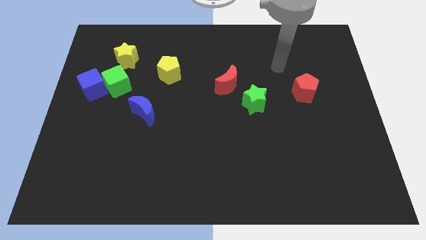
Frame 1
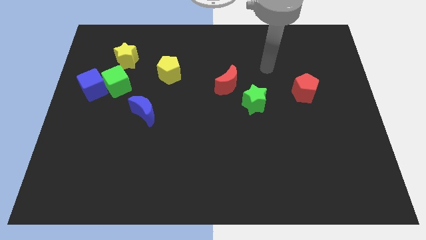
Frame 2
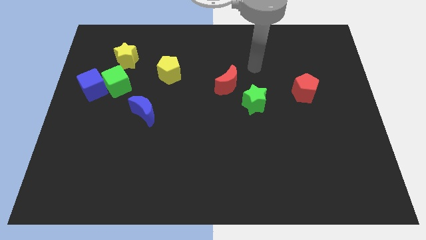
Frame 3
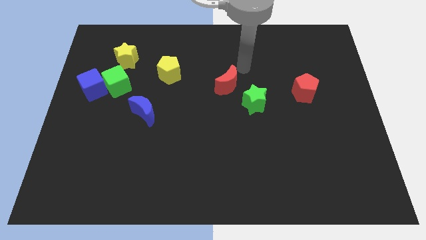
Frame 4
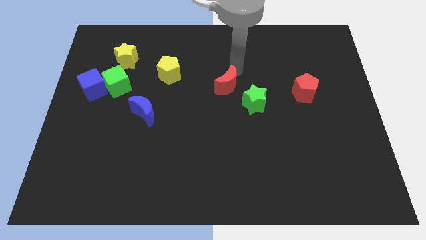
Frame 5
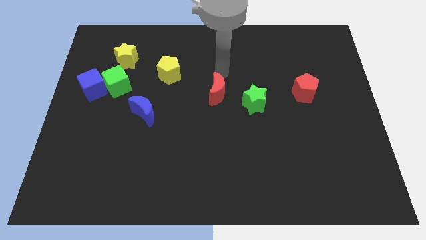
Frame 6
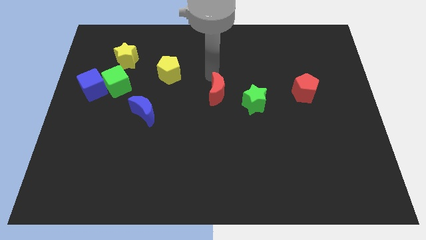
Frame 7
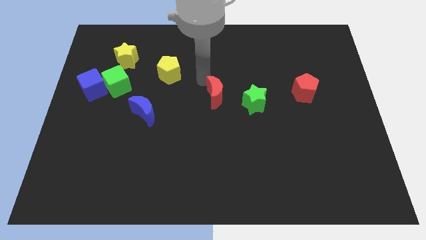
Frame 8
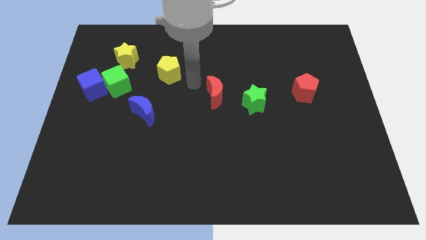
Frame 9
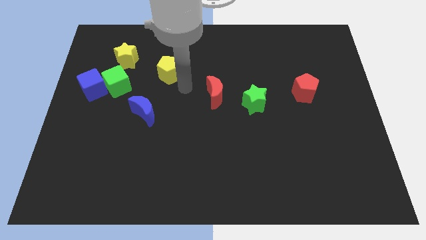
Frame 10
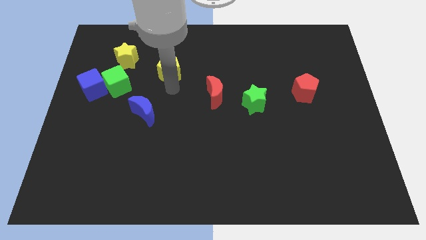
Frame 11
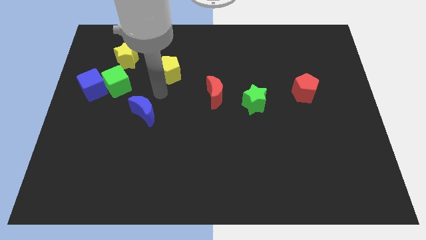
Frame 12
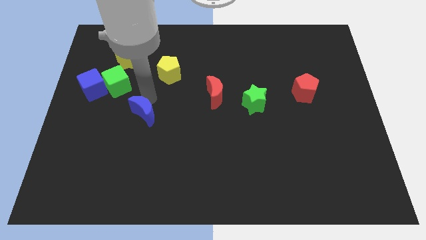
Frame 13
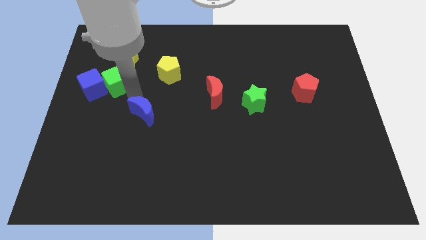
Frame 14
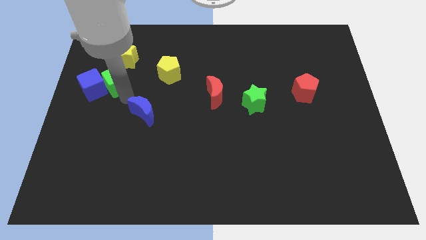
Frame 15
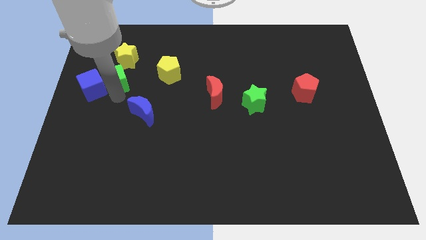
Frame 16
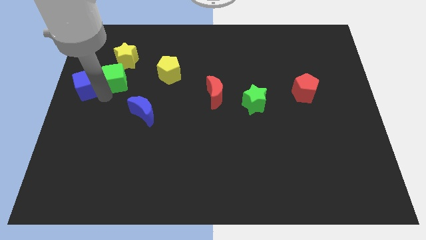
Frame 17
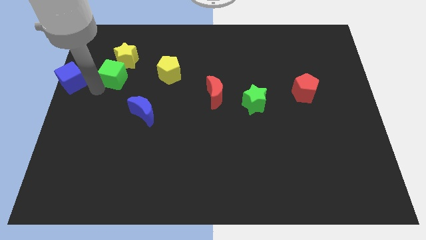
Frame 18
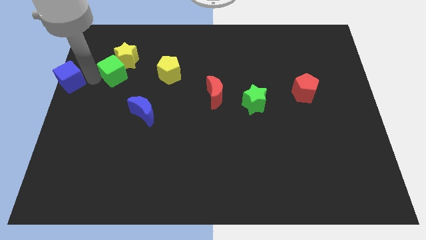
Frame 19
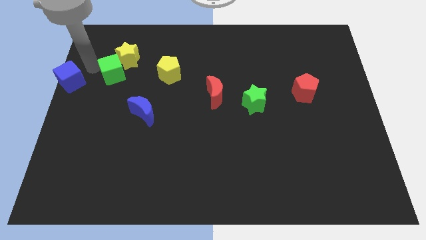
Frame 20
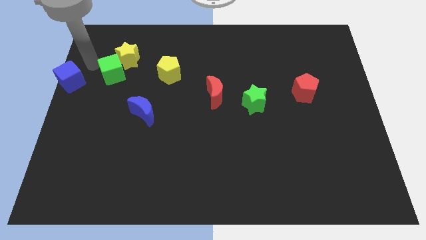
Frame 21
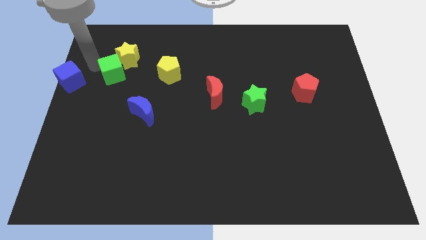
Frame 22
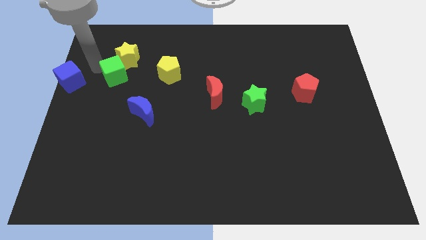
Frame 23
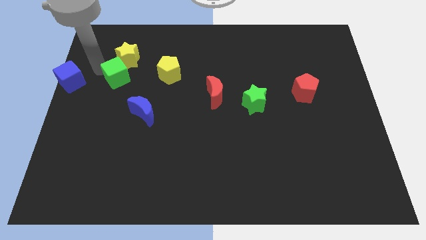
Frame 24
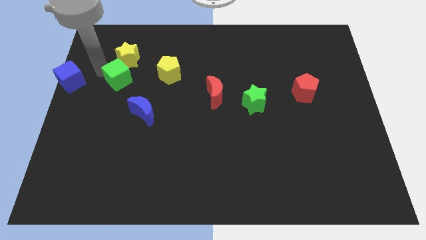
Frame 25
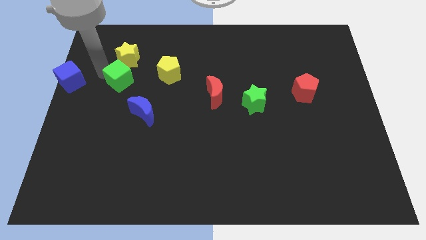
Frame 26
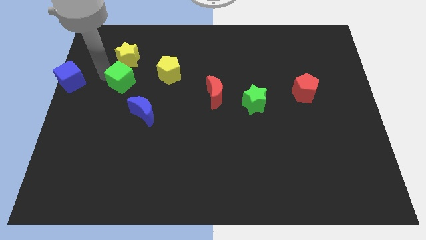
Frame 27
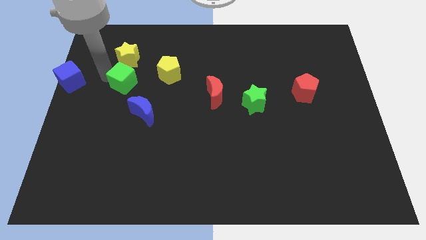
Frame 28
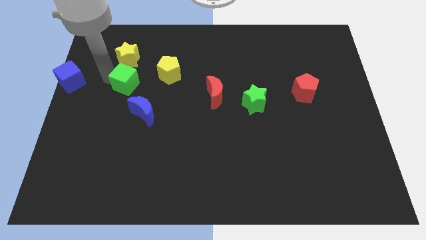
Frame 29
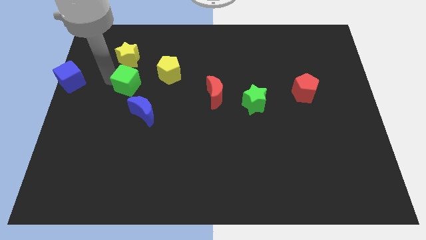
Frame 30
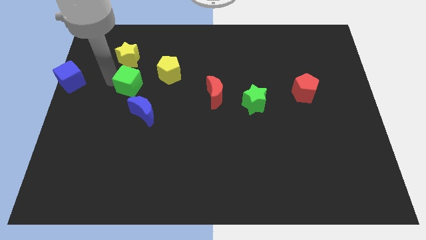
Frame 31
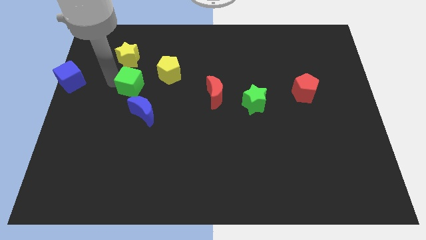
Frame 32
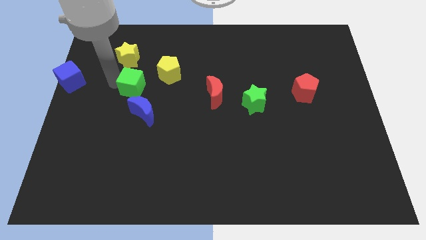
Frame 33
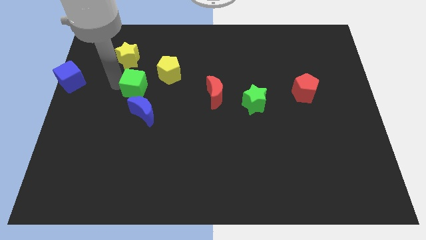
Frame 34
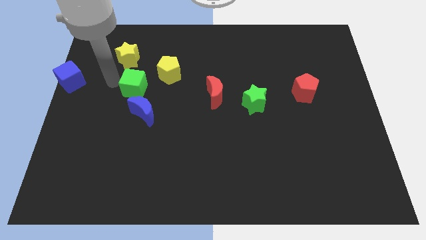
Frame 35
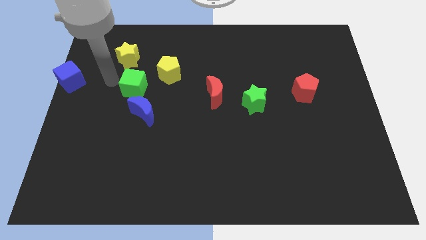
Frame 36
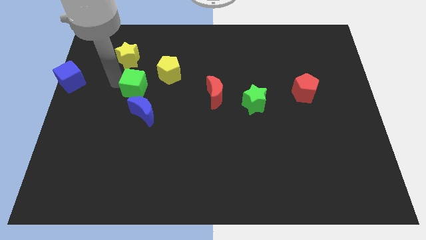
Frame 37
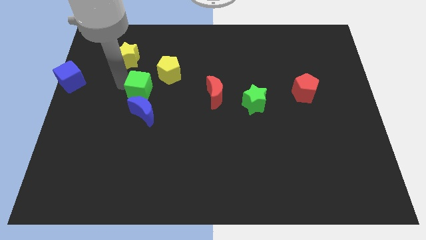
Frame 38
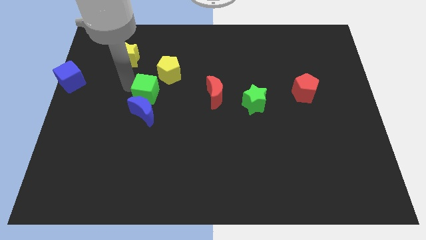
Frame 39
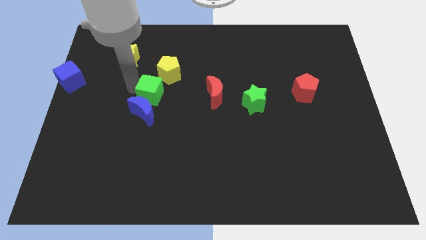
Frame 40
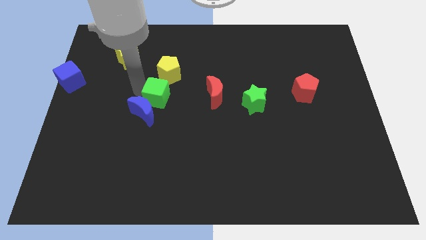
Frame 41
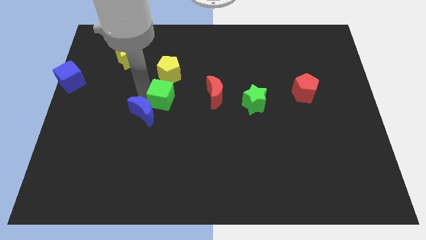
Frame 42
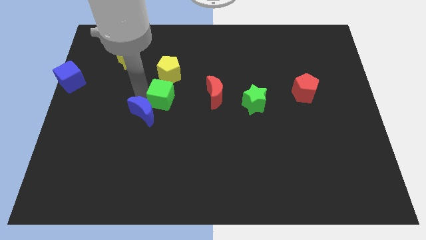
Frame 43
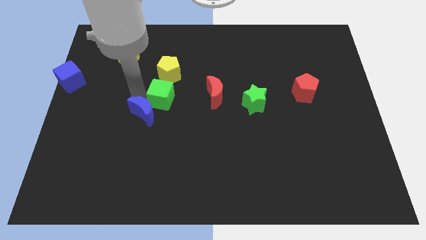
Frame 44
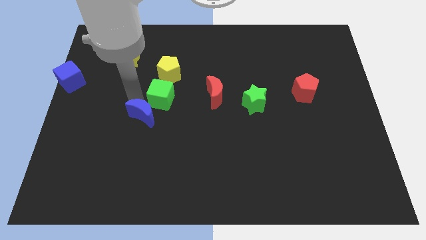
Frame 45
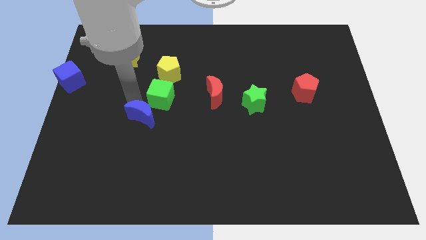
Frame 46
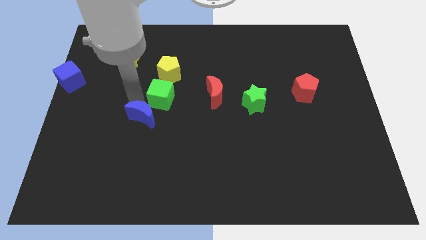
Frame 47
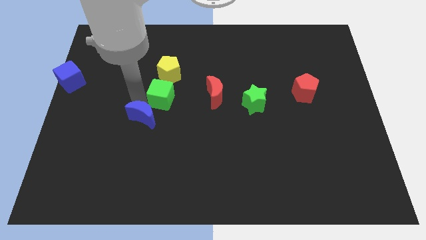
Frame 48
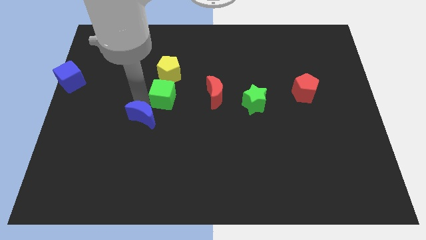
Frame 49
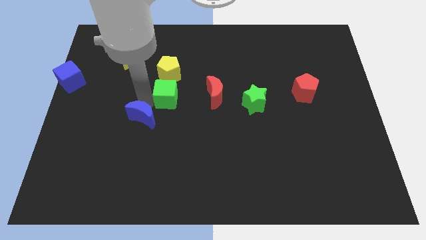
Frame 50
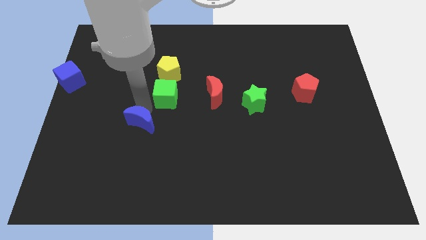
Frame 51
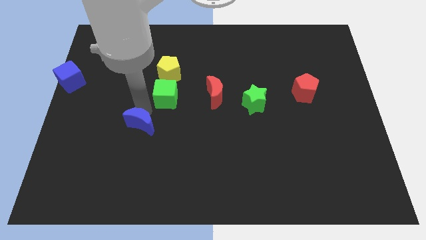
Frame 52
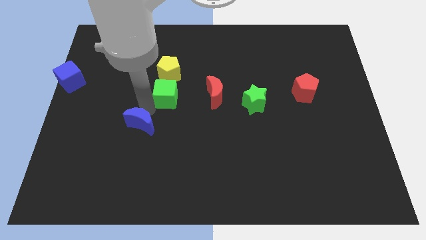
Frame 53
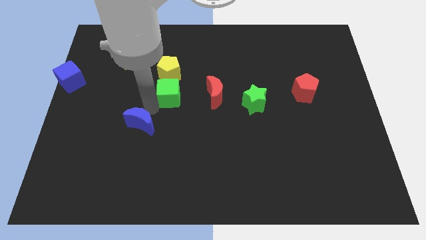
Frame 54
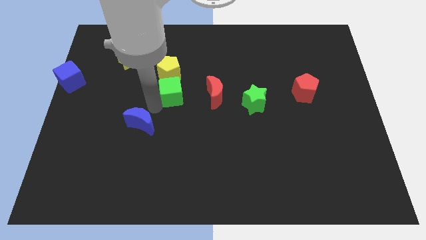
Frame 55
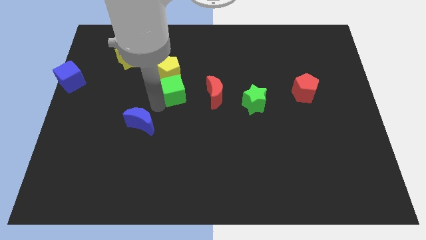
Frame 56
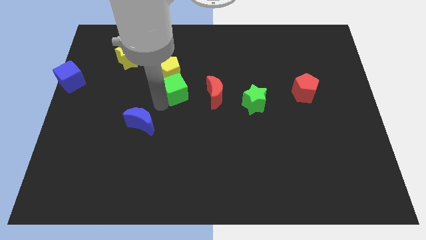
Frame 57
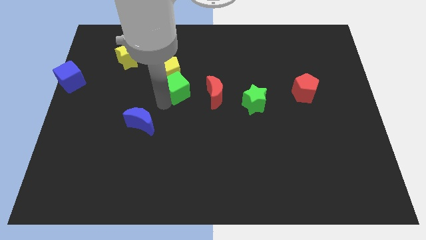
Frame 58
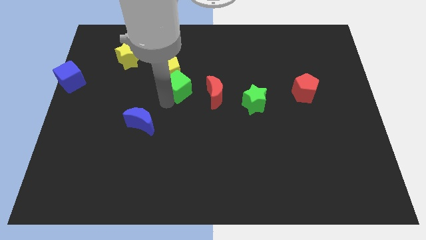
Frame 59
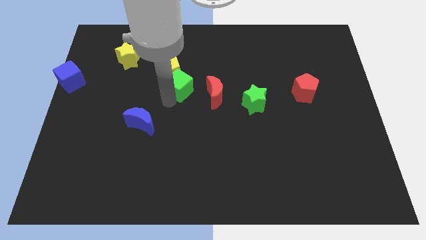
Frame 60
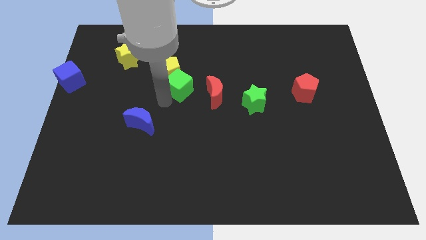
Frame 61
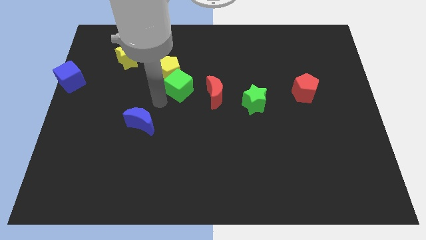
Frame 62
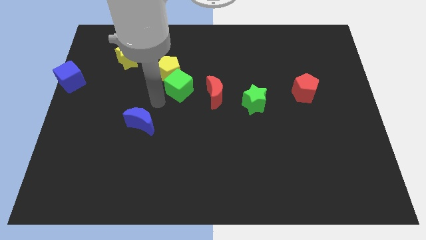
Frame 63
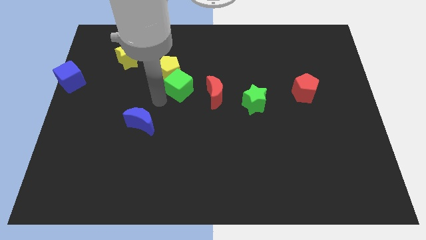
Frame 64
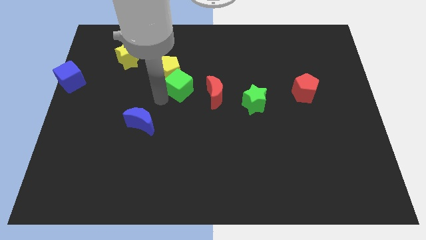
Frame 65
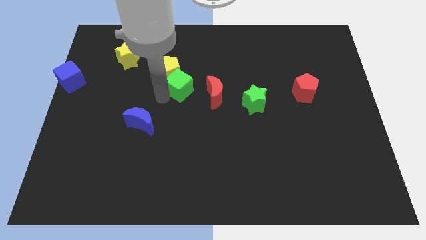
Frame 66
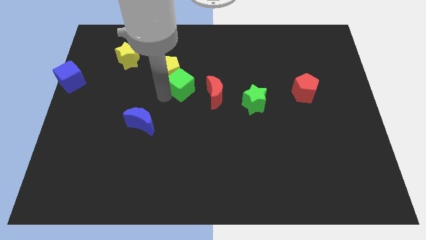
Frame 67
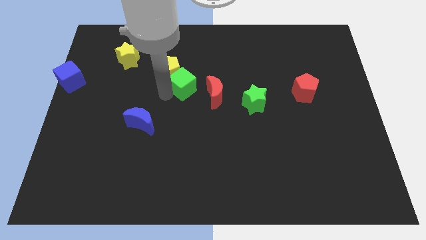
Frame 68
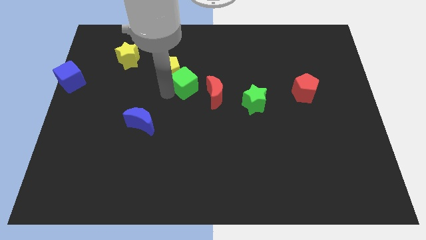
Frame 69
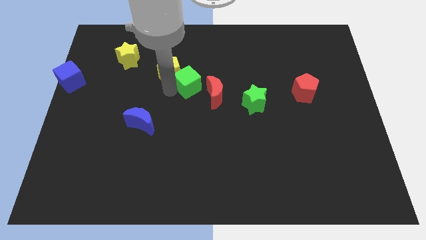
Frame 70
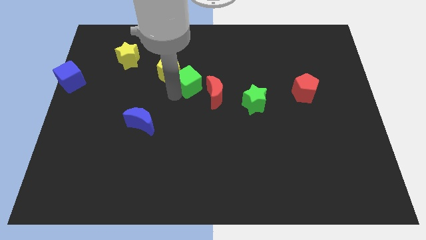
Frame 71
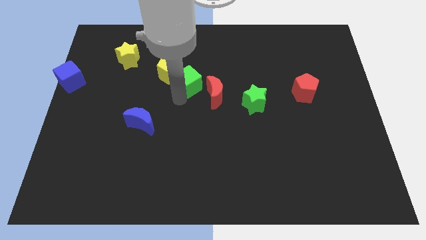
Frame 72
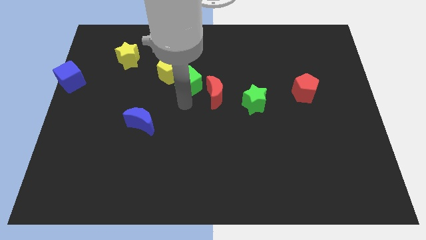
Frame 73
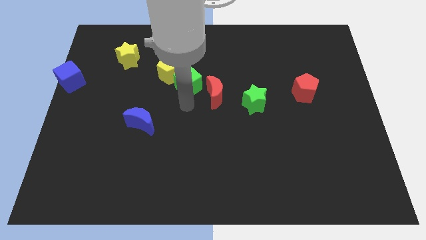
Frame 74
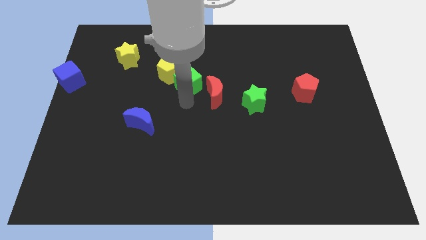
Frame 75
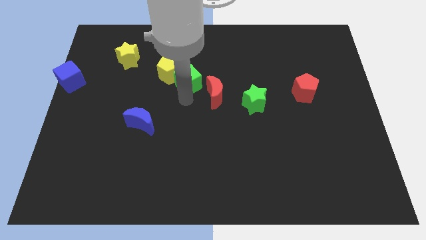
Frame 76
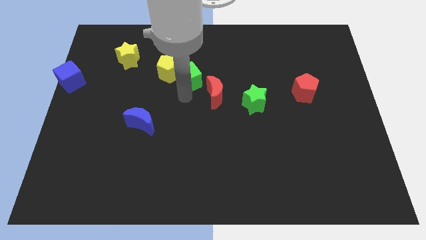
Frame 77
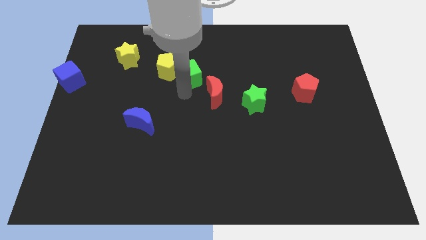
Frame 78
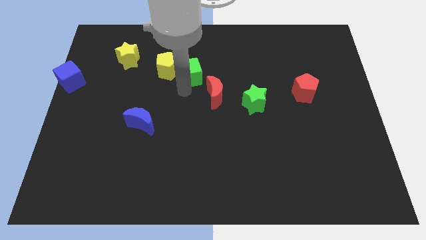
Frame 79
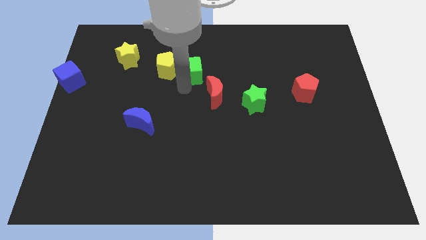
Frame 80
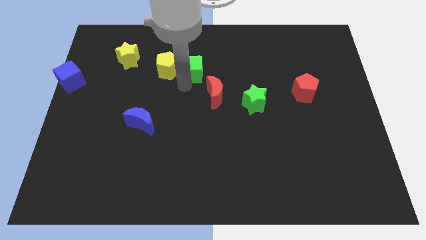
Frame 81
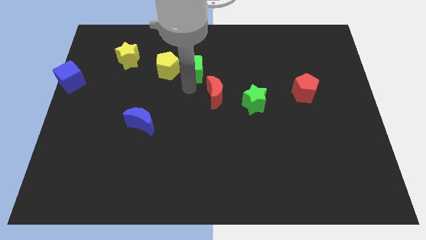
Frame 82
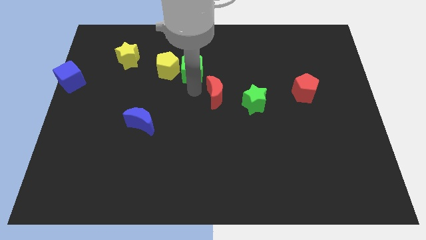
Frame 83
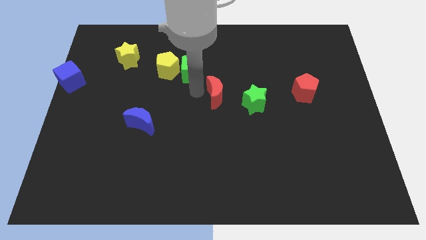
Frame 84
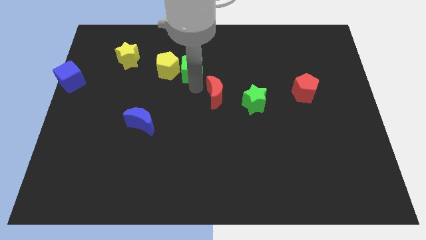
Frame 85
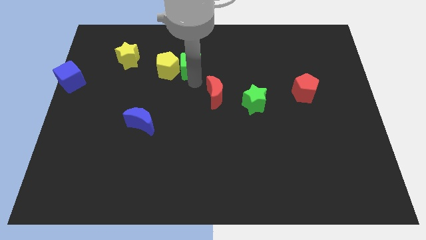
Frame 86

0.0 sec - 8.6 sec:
put the green cube to the top right of the yellow pentagon
